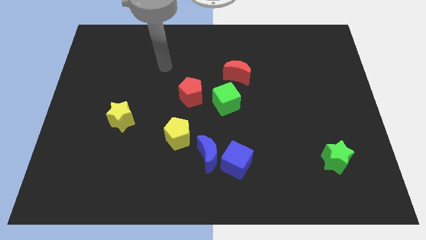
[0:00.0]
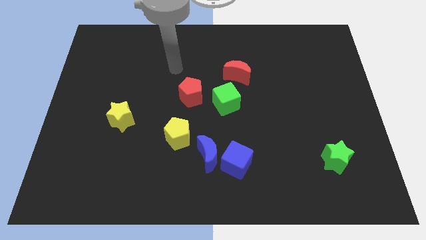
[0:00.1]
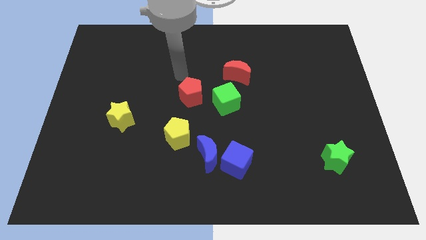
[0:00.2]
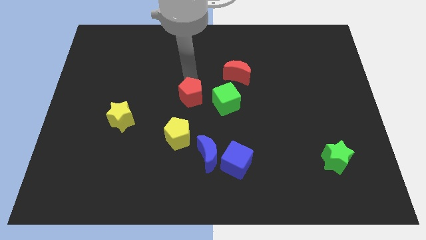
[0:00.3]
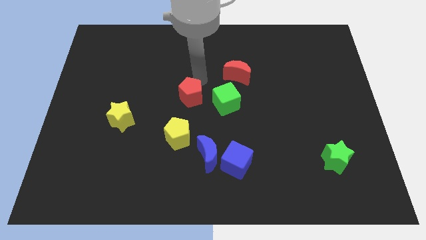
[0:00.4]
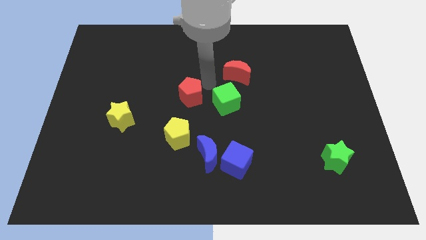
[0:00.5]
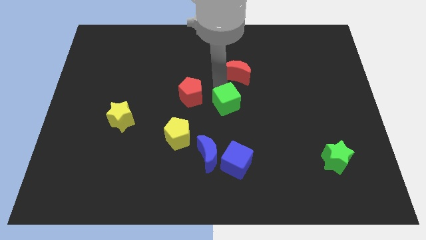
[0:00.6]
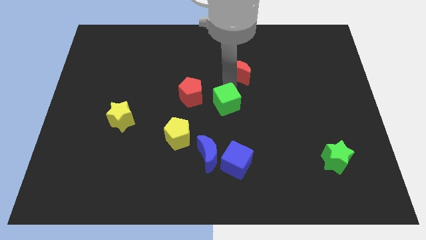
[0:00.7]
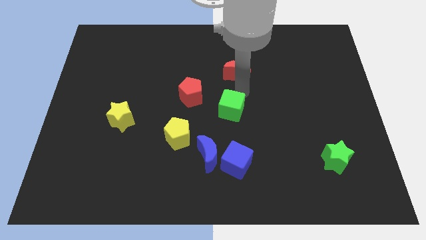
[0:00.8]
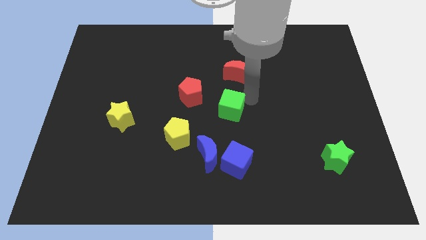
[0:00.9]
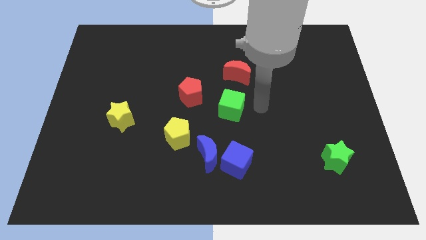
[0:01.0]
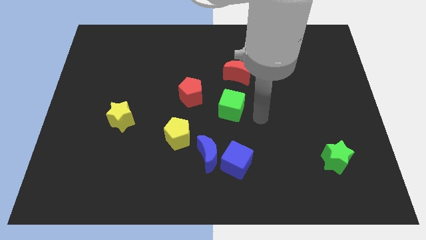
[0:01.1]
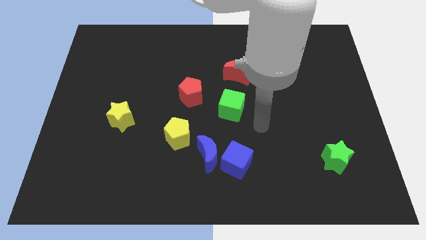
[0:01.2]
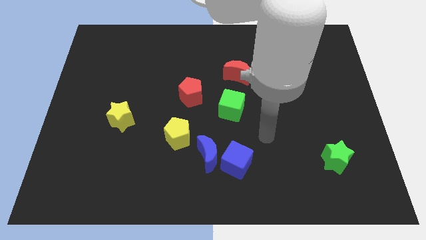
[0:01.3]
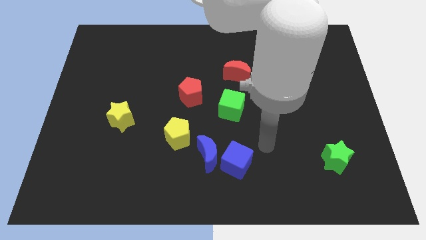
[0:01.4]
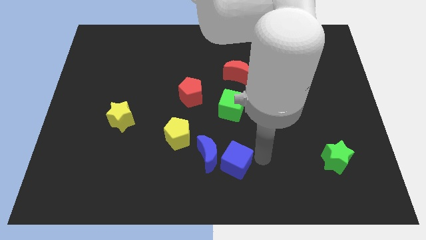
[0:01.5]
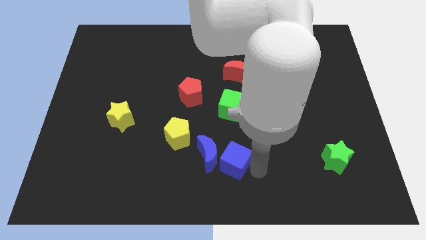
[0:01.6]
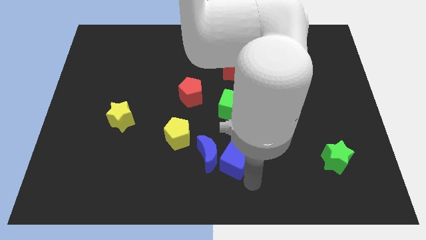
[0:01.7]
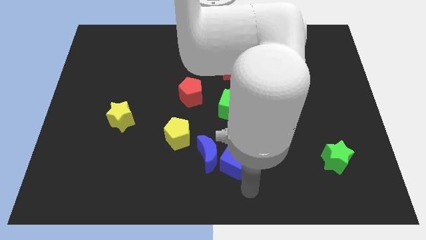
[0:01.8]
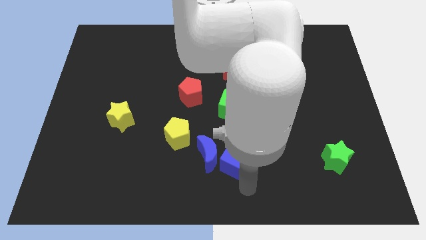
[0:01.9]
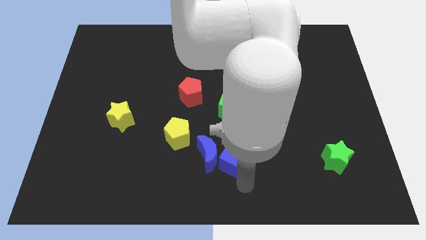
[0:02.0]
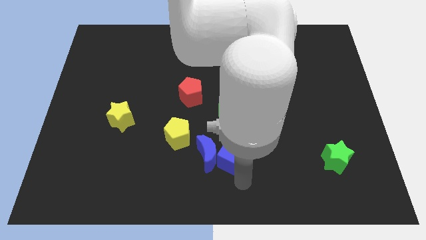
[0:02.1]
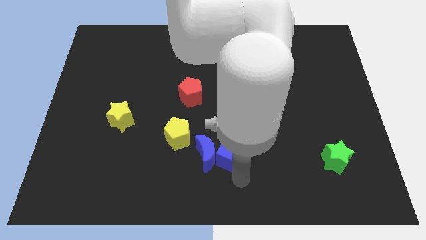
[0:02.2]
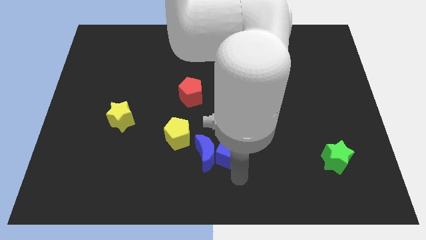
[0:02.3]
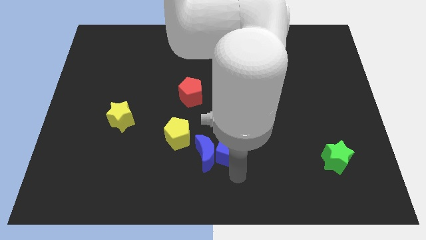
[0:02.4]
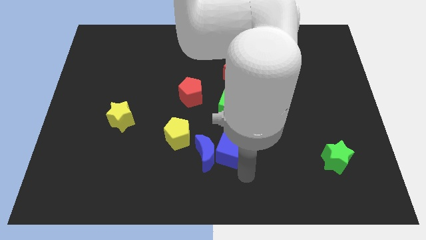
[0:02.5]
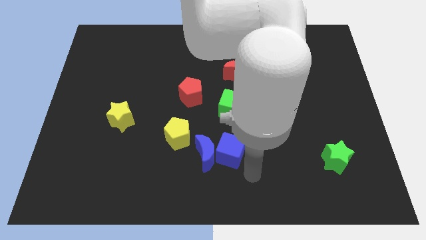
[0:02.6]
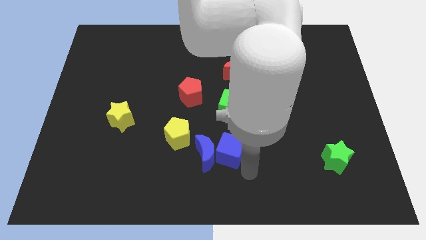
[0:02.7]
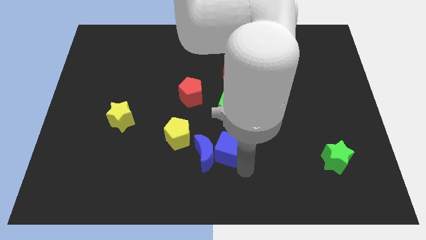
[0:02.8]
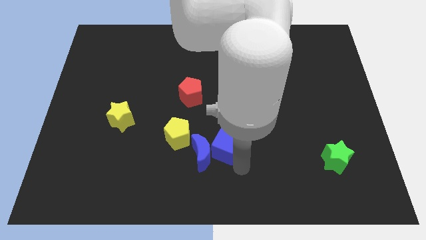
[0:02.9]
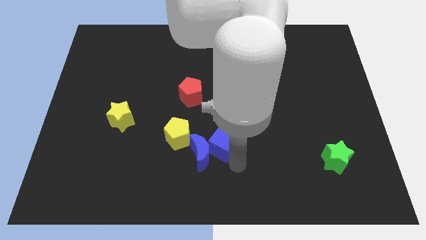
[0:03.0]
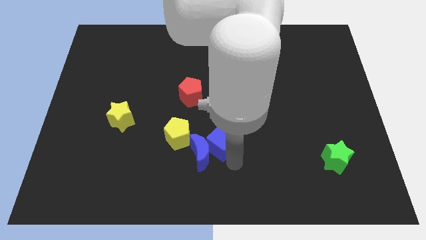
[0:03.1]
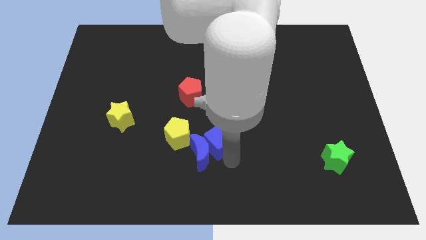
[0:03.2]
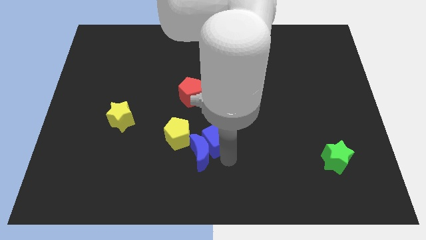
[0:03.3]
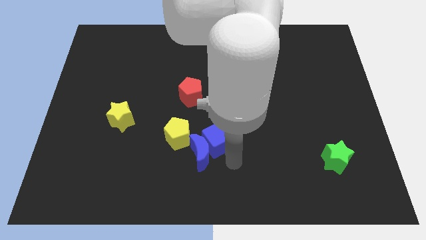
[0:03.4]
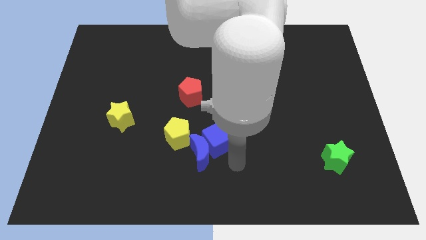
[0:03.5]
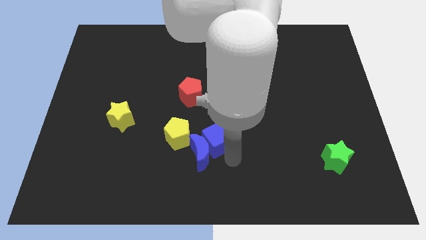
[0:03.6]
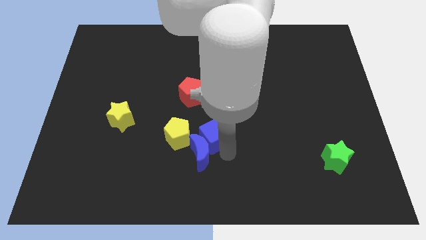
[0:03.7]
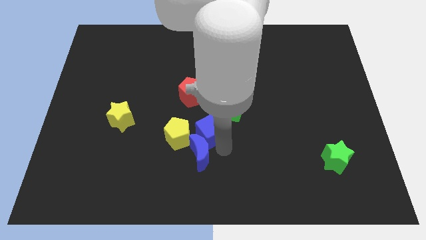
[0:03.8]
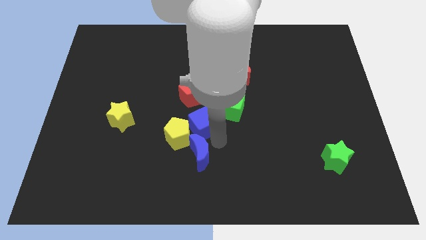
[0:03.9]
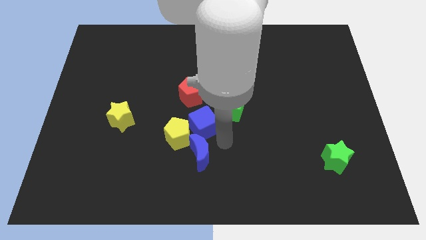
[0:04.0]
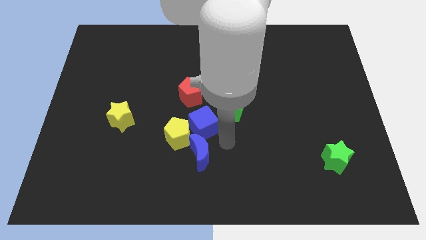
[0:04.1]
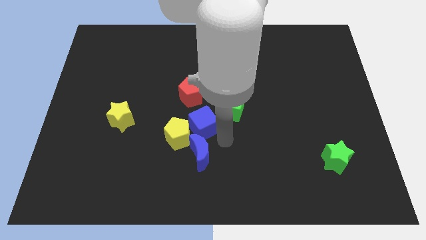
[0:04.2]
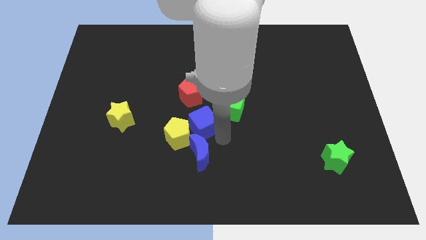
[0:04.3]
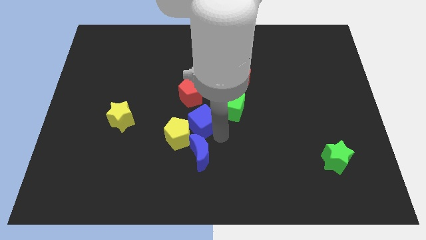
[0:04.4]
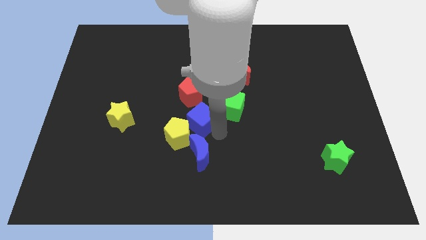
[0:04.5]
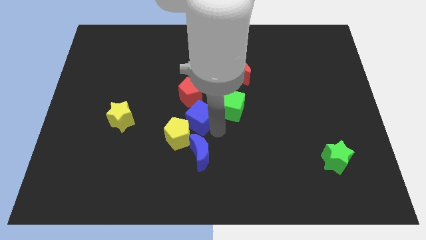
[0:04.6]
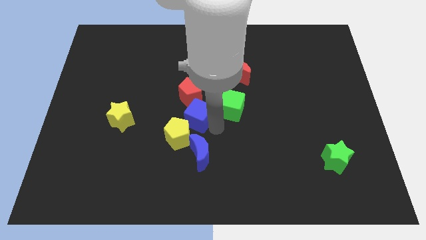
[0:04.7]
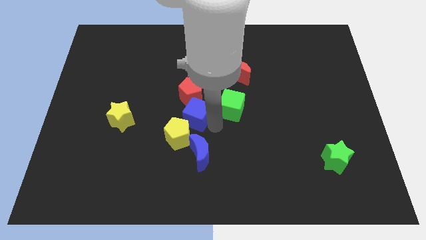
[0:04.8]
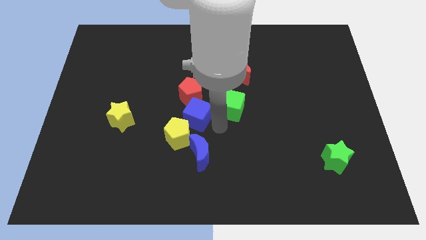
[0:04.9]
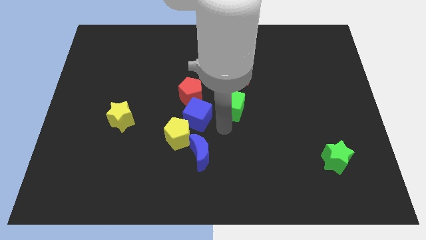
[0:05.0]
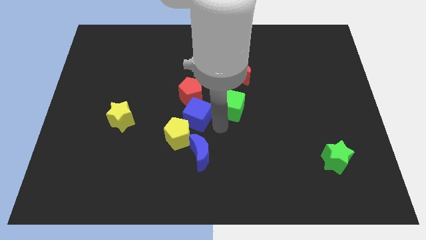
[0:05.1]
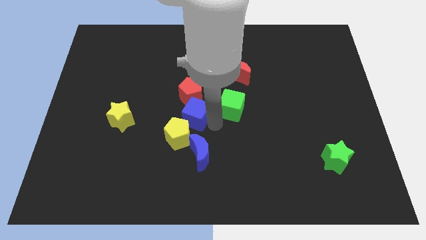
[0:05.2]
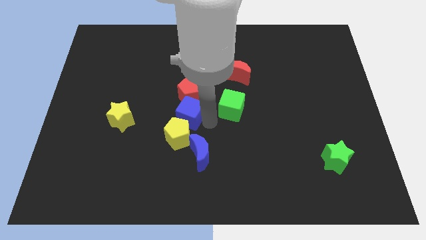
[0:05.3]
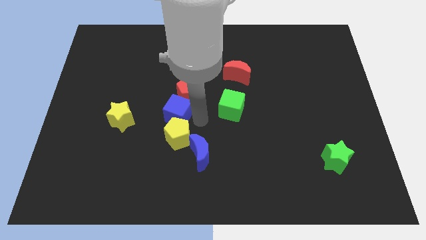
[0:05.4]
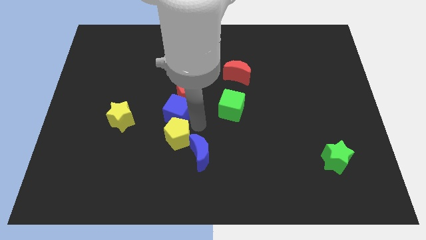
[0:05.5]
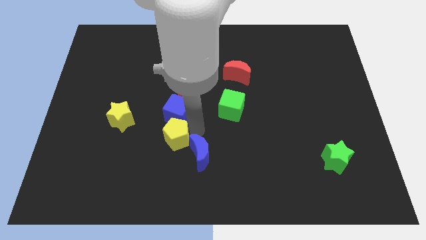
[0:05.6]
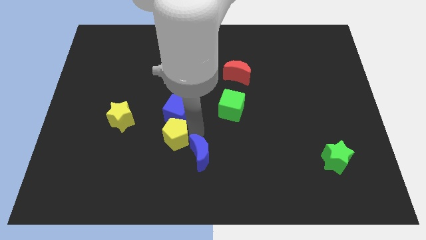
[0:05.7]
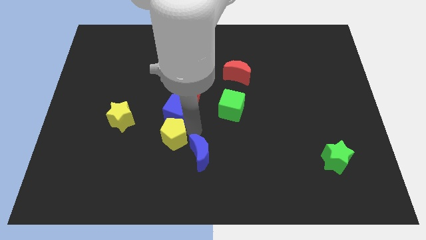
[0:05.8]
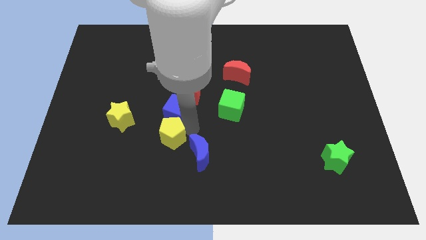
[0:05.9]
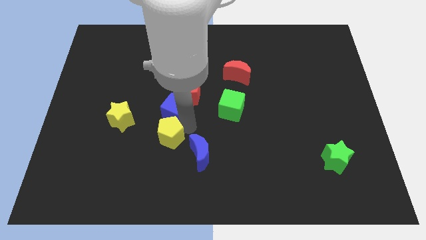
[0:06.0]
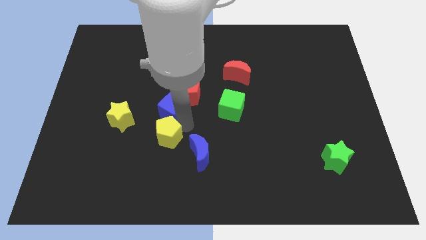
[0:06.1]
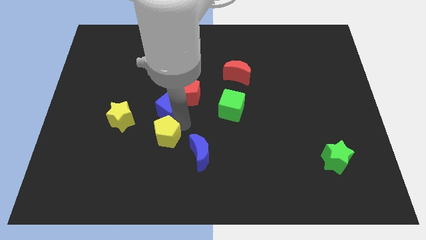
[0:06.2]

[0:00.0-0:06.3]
push the blue cube up and left diagonally

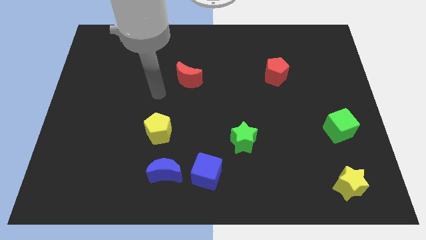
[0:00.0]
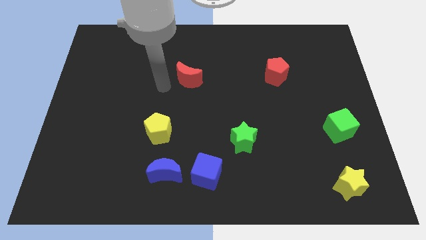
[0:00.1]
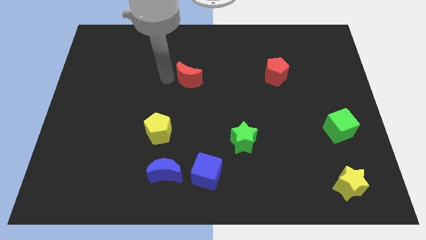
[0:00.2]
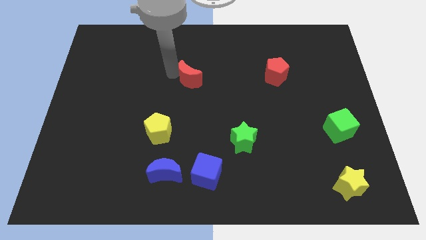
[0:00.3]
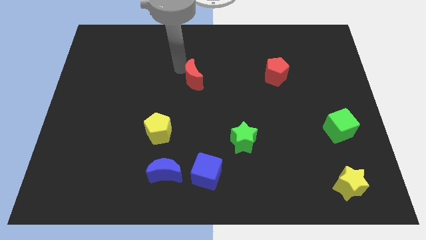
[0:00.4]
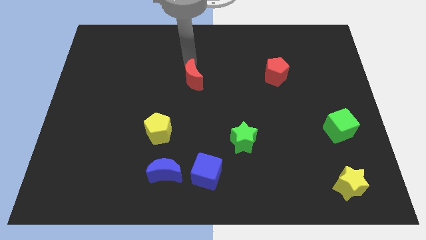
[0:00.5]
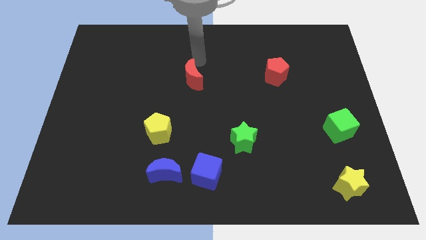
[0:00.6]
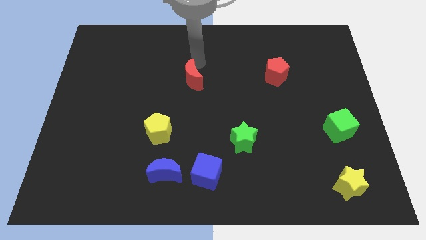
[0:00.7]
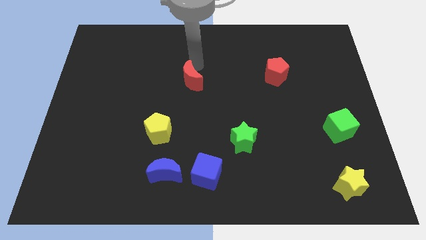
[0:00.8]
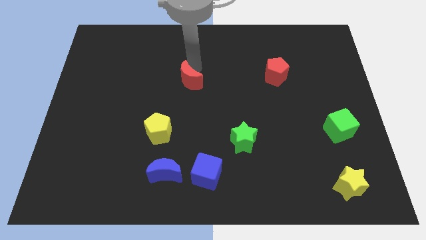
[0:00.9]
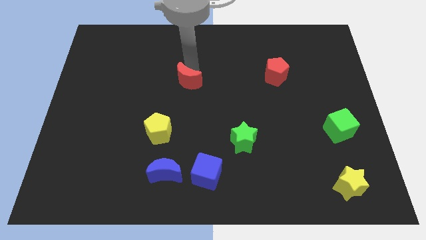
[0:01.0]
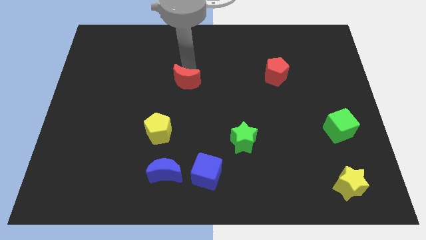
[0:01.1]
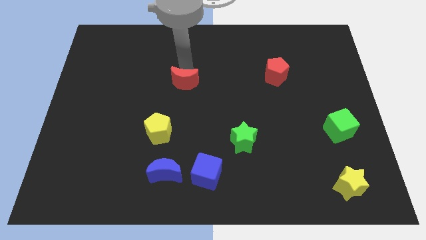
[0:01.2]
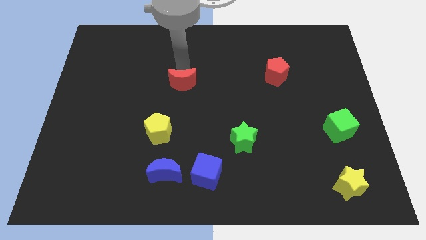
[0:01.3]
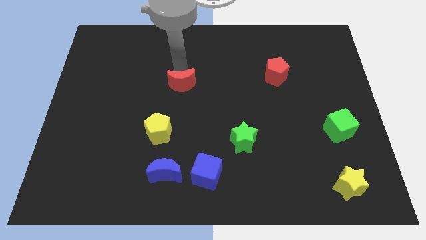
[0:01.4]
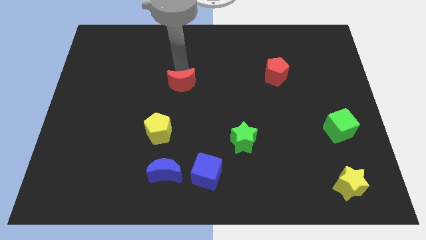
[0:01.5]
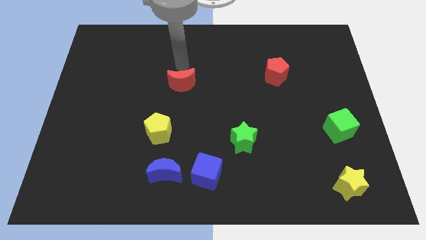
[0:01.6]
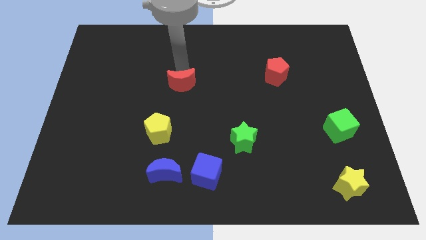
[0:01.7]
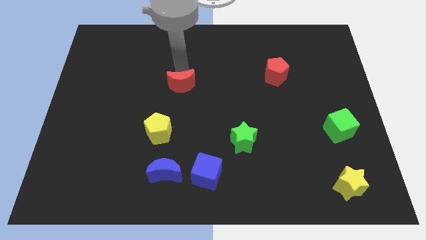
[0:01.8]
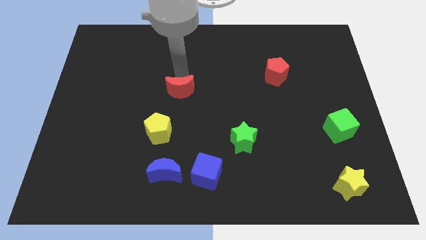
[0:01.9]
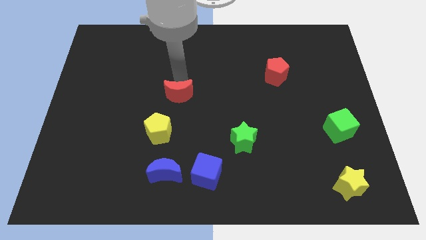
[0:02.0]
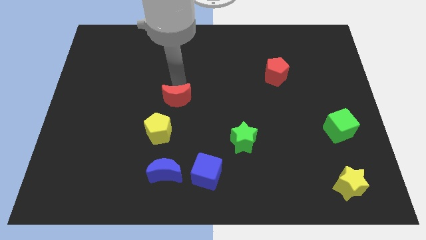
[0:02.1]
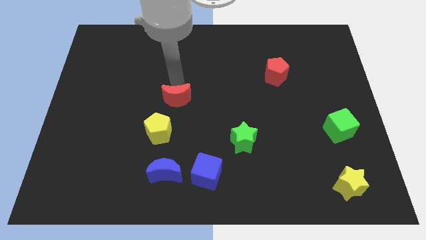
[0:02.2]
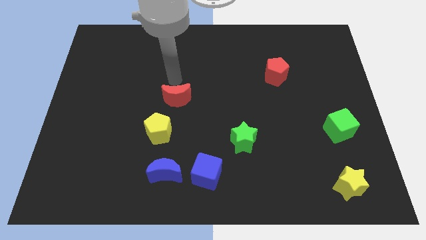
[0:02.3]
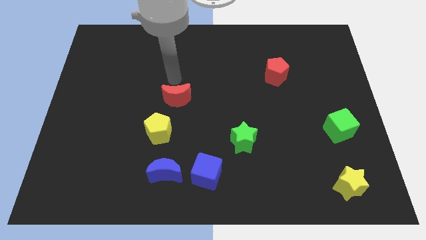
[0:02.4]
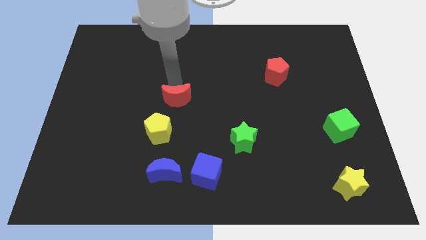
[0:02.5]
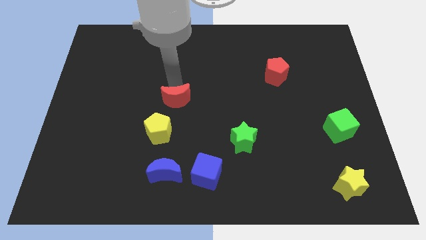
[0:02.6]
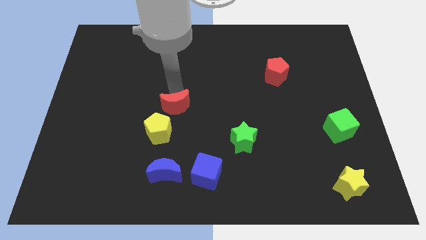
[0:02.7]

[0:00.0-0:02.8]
slightly move the red moon down
